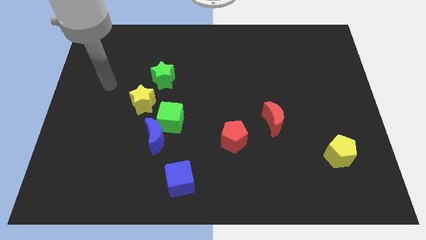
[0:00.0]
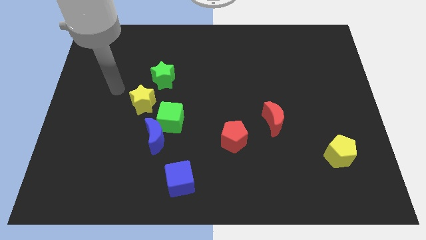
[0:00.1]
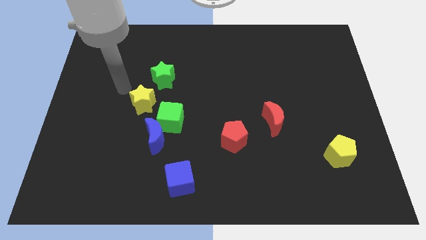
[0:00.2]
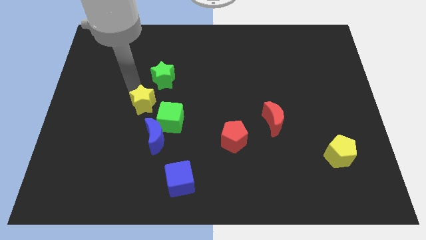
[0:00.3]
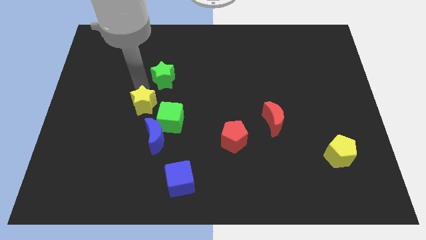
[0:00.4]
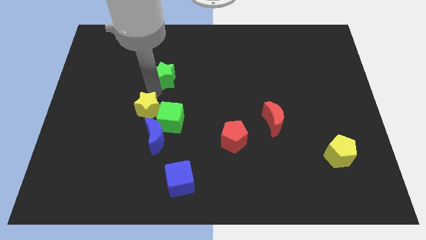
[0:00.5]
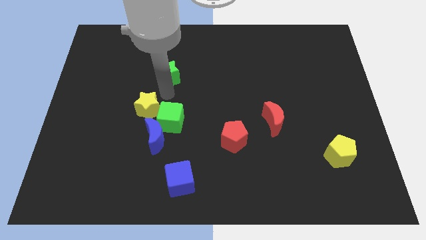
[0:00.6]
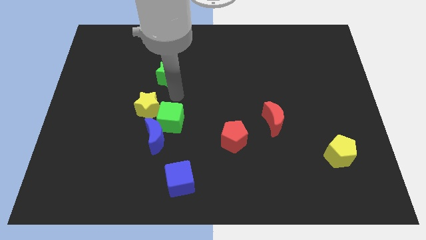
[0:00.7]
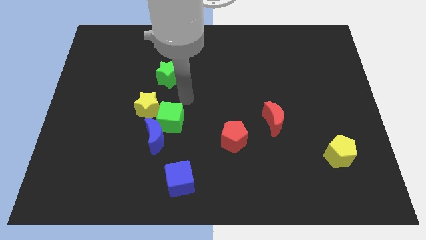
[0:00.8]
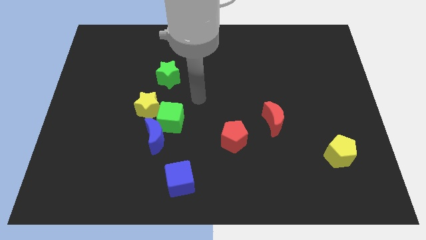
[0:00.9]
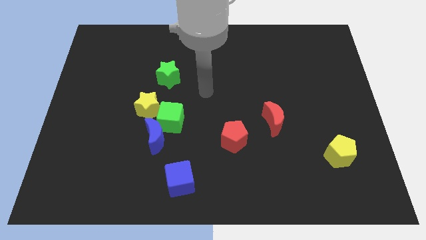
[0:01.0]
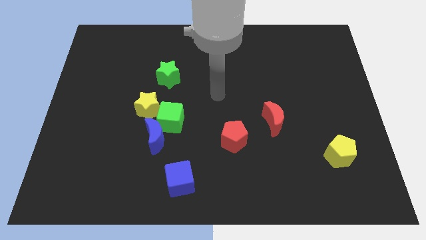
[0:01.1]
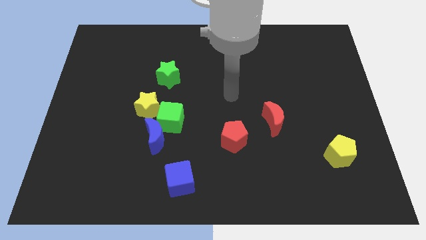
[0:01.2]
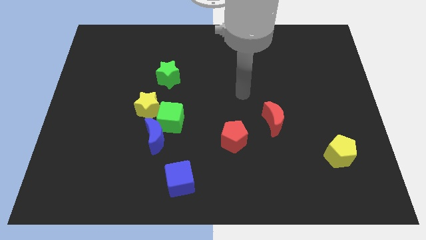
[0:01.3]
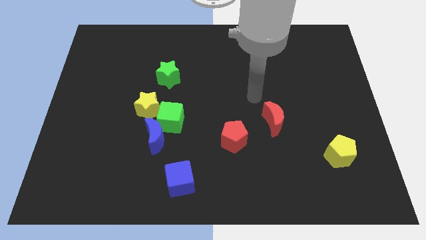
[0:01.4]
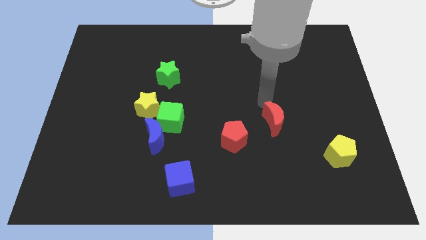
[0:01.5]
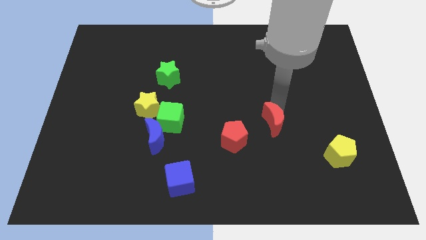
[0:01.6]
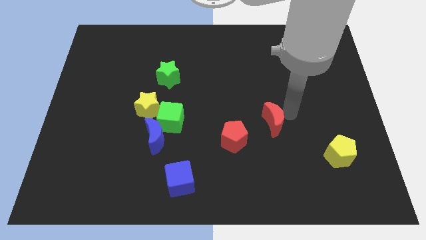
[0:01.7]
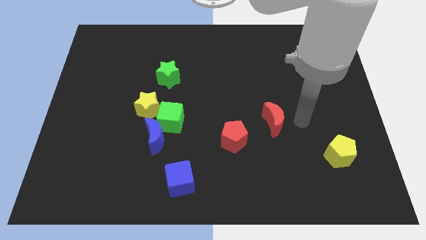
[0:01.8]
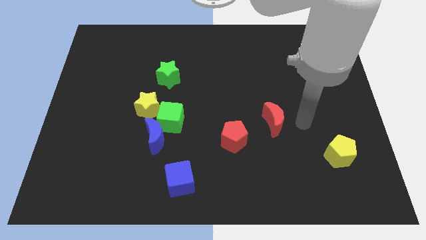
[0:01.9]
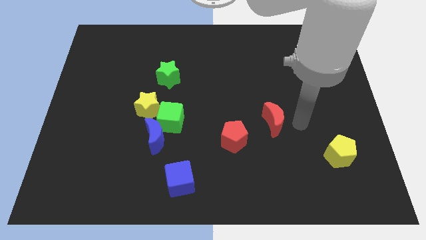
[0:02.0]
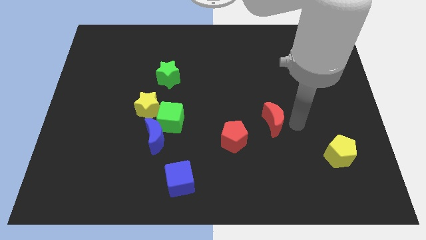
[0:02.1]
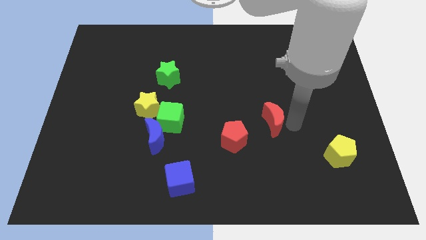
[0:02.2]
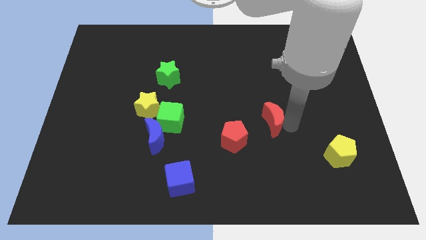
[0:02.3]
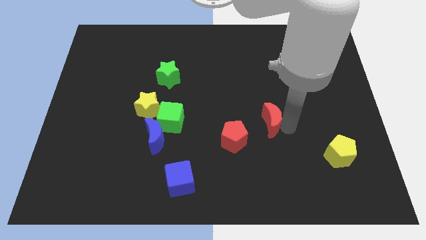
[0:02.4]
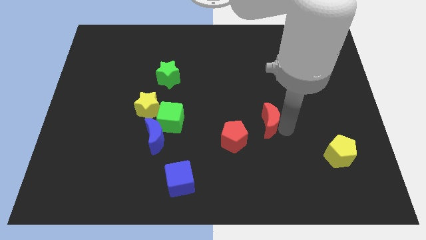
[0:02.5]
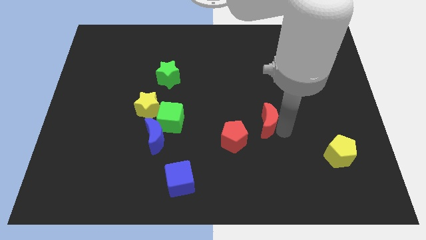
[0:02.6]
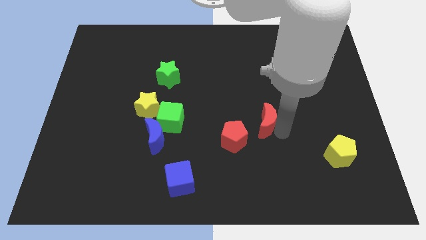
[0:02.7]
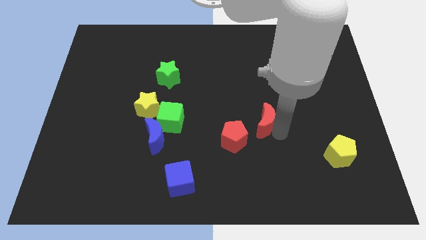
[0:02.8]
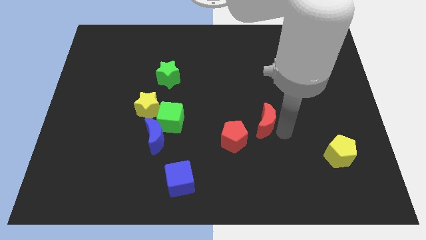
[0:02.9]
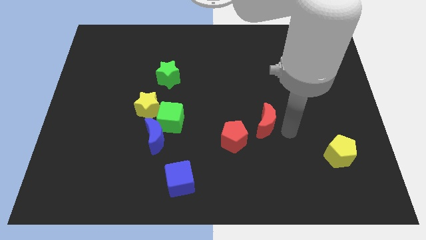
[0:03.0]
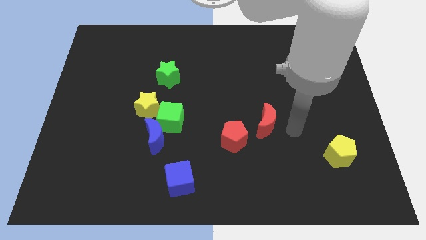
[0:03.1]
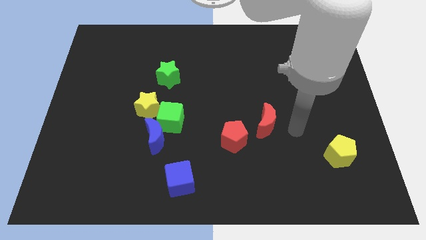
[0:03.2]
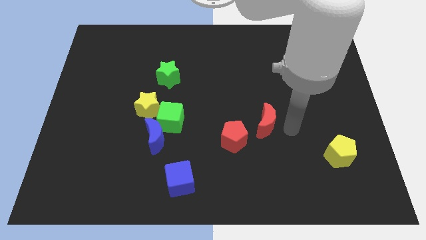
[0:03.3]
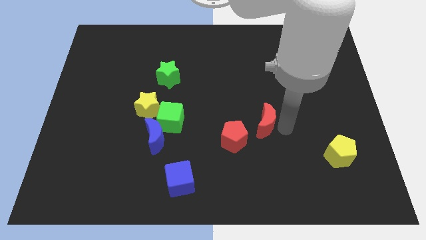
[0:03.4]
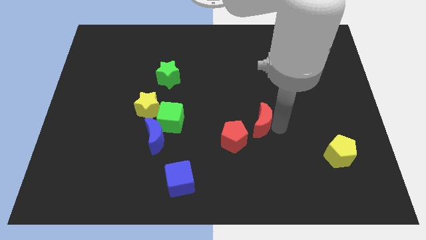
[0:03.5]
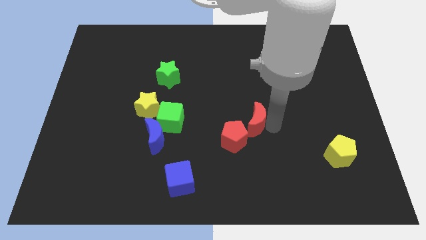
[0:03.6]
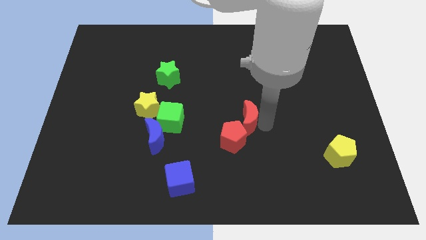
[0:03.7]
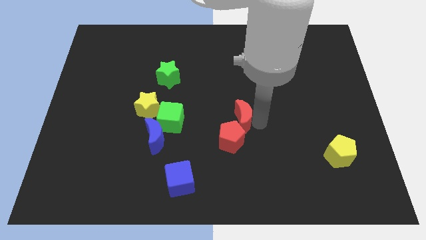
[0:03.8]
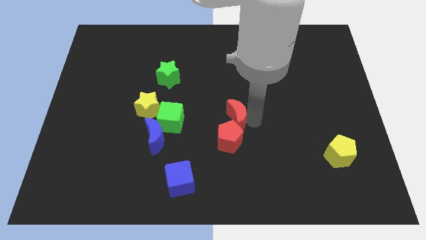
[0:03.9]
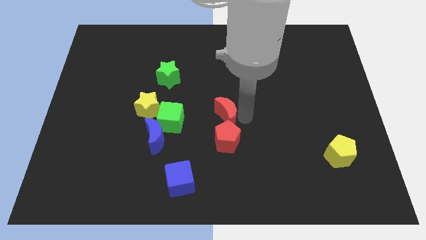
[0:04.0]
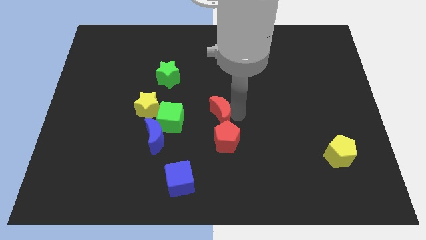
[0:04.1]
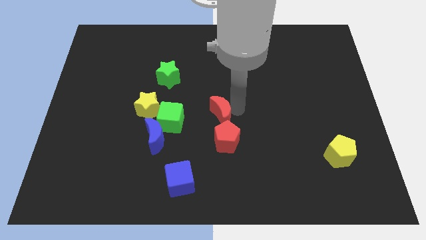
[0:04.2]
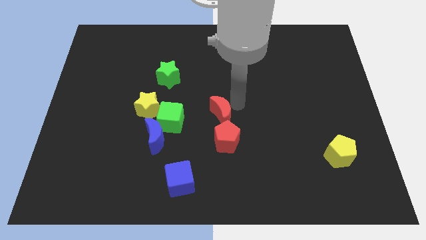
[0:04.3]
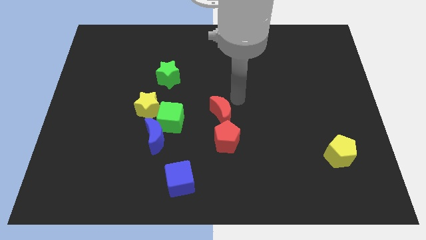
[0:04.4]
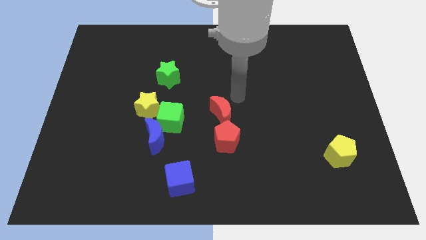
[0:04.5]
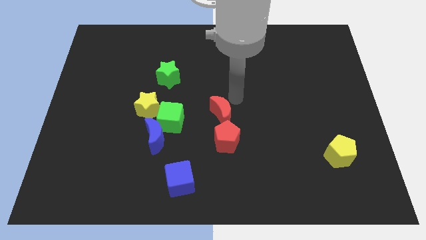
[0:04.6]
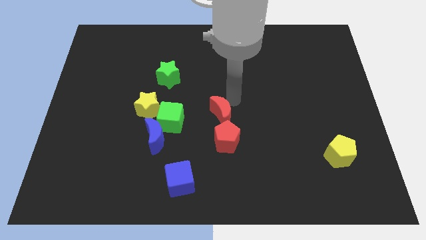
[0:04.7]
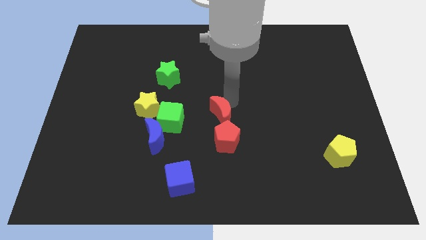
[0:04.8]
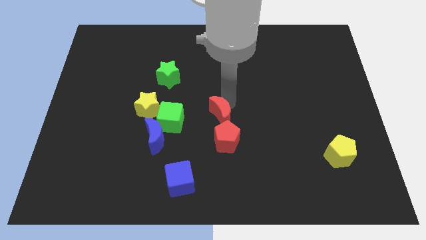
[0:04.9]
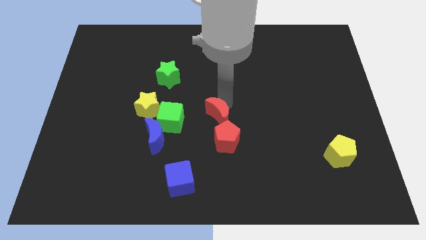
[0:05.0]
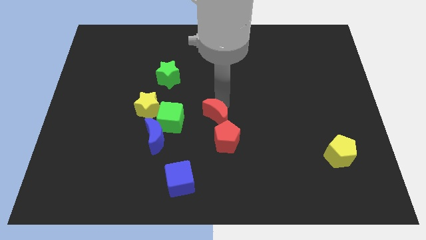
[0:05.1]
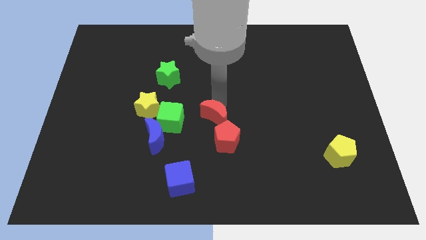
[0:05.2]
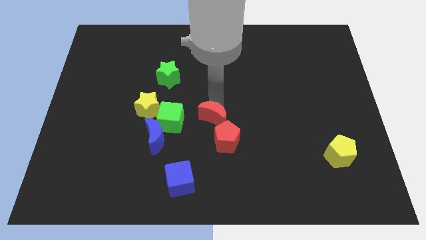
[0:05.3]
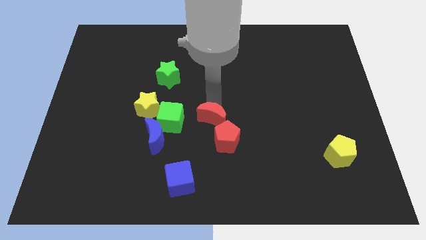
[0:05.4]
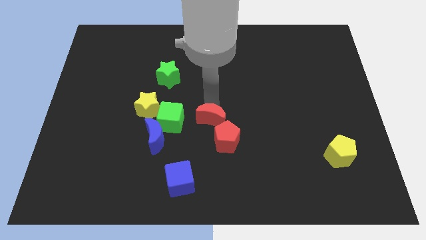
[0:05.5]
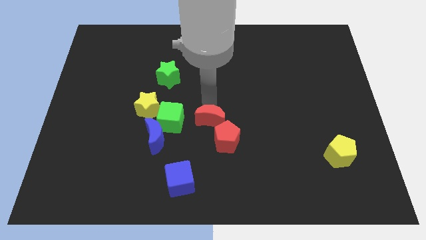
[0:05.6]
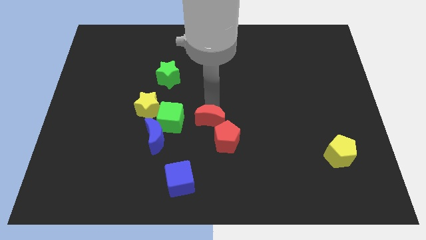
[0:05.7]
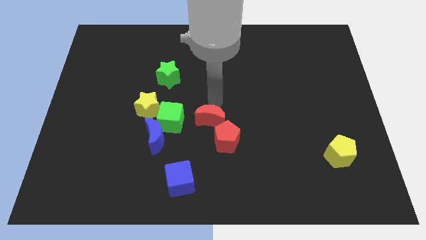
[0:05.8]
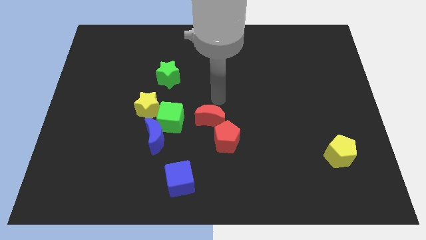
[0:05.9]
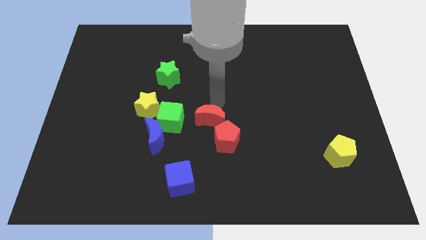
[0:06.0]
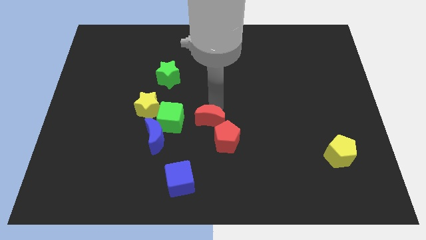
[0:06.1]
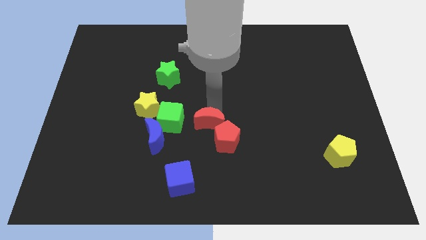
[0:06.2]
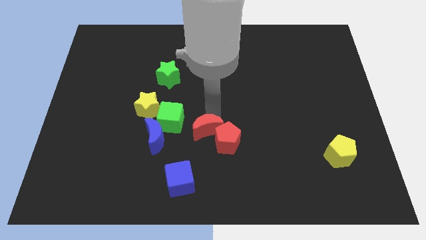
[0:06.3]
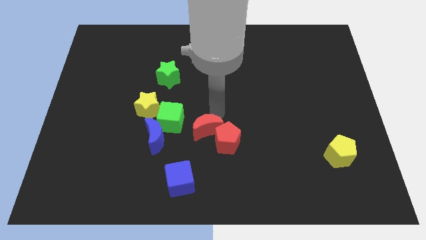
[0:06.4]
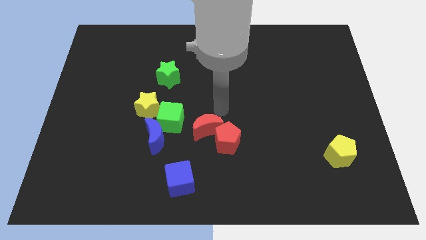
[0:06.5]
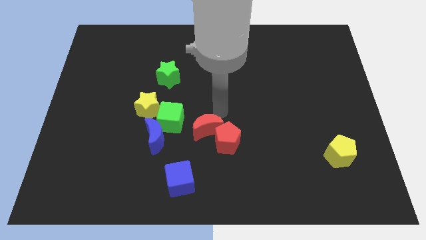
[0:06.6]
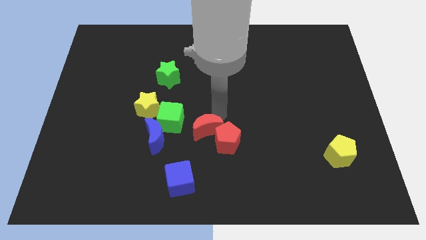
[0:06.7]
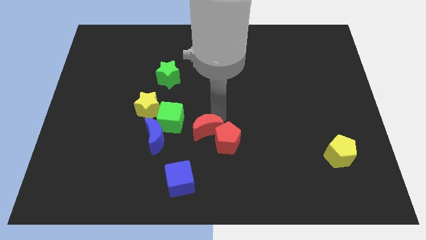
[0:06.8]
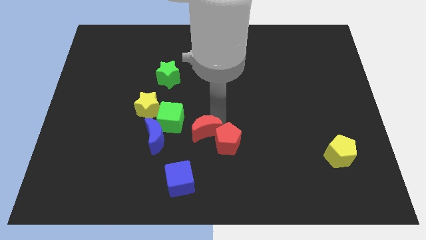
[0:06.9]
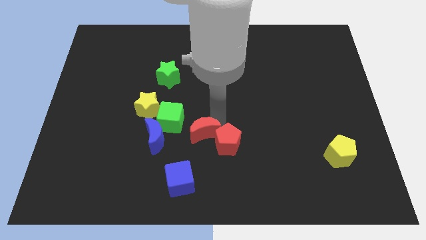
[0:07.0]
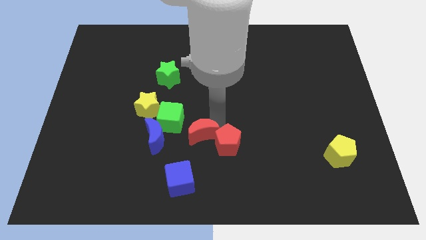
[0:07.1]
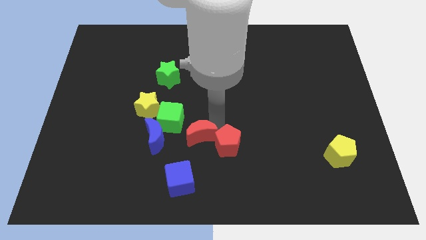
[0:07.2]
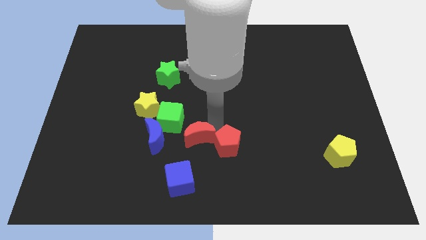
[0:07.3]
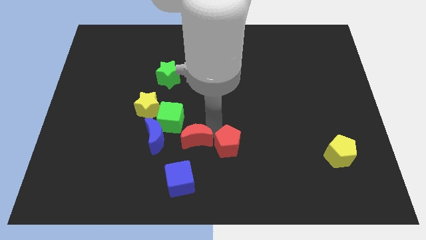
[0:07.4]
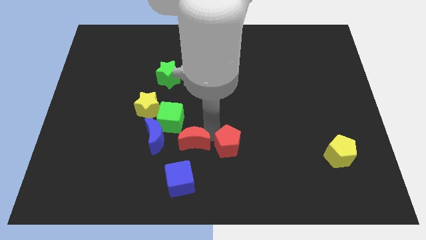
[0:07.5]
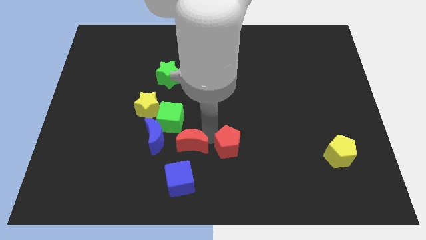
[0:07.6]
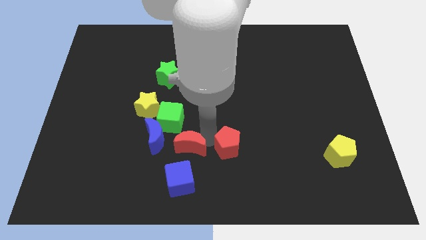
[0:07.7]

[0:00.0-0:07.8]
move the red moon below the green cube
